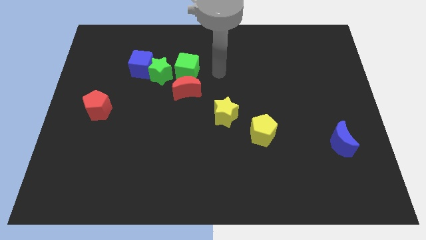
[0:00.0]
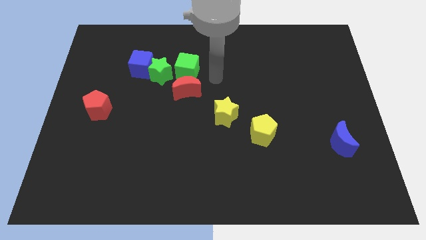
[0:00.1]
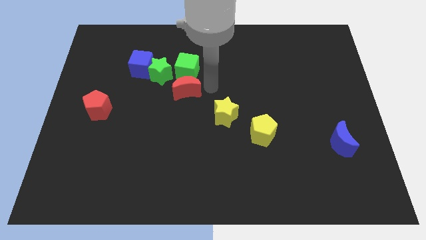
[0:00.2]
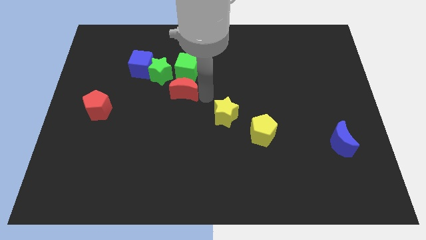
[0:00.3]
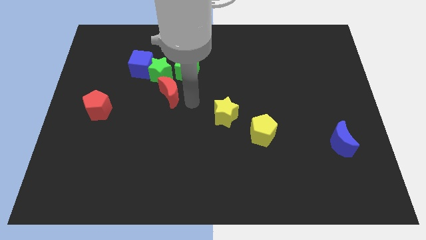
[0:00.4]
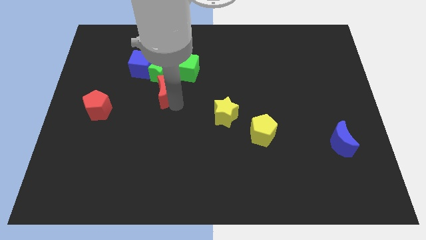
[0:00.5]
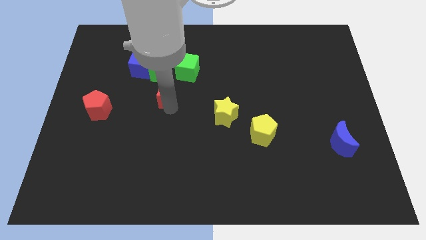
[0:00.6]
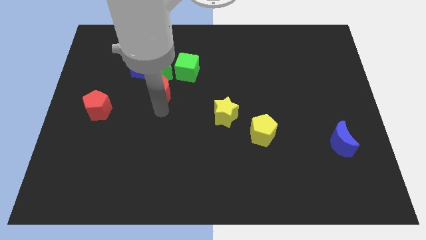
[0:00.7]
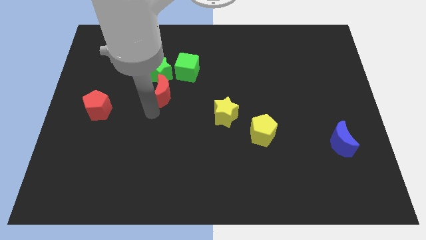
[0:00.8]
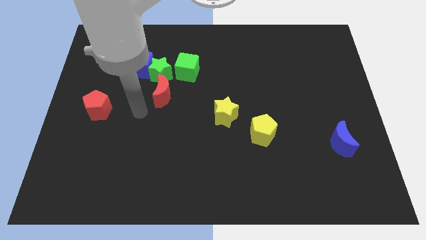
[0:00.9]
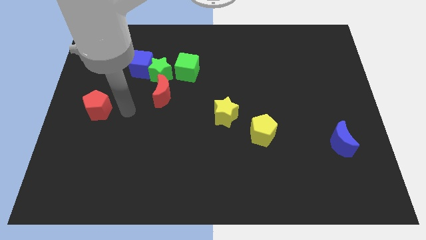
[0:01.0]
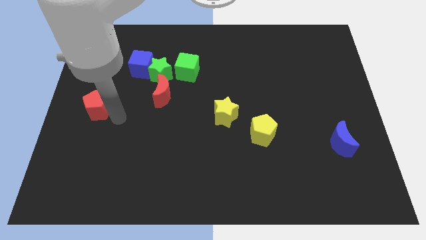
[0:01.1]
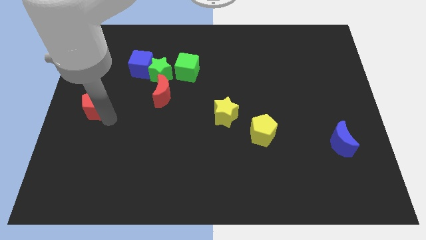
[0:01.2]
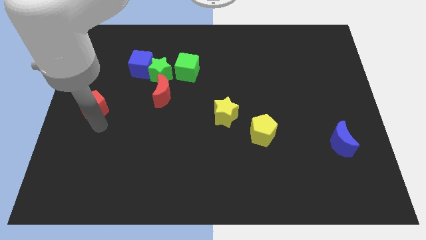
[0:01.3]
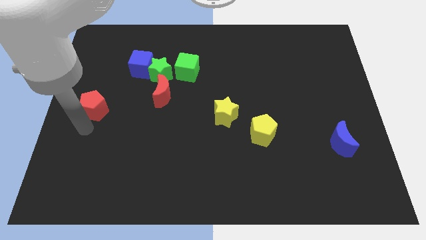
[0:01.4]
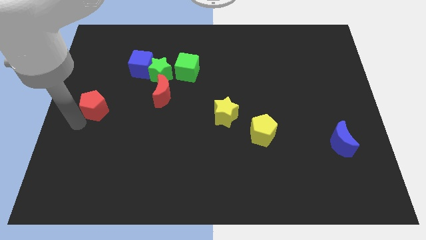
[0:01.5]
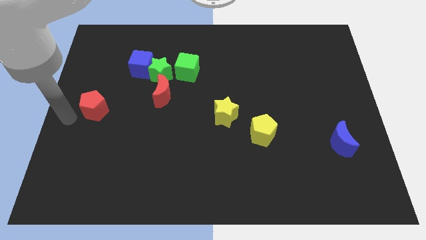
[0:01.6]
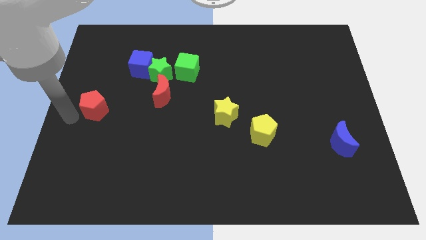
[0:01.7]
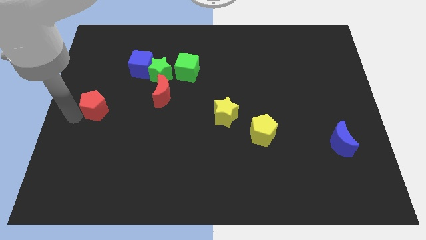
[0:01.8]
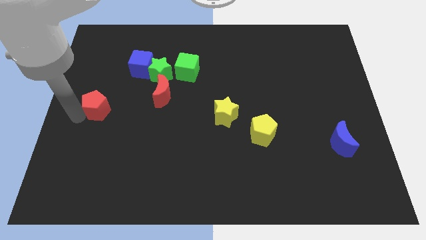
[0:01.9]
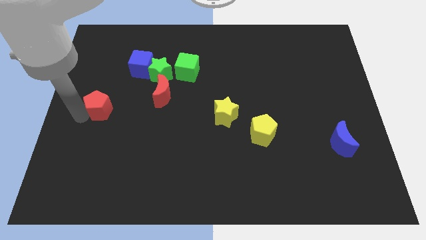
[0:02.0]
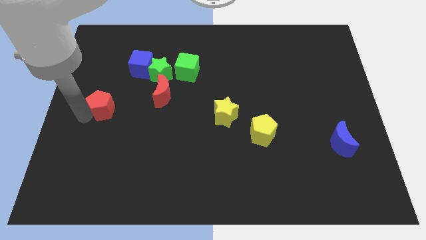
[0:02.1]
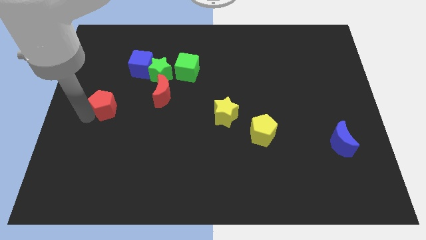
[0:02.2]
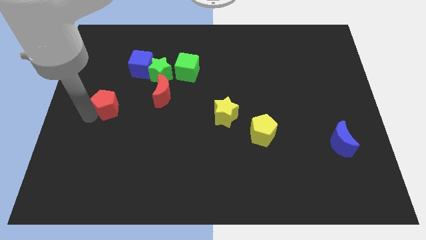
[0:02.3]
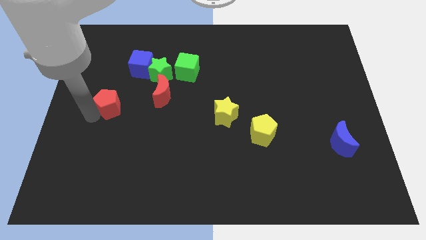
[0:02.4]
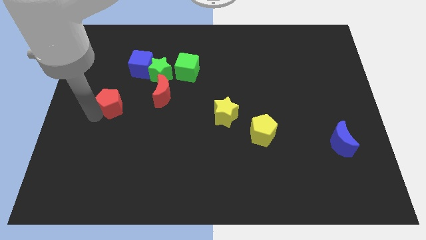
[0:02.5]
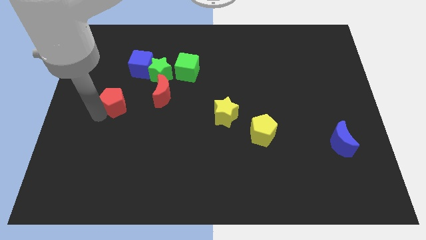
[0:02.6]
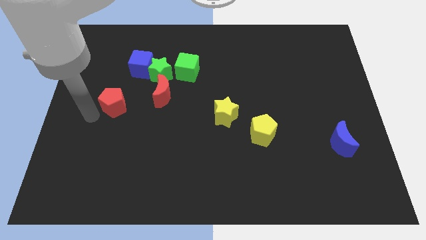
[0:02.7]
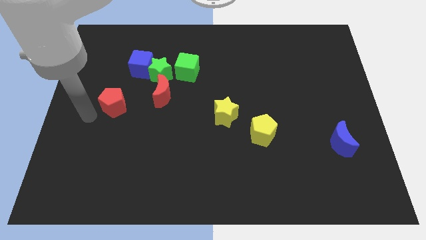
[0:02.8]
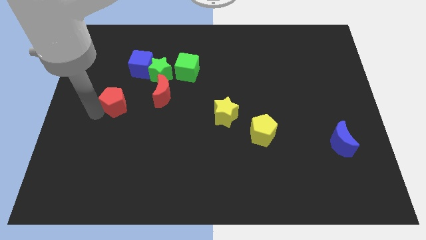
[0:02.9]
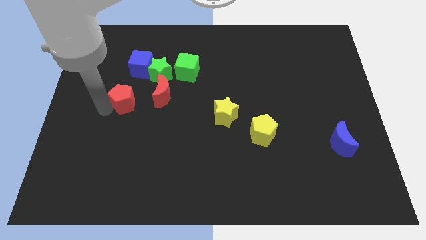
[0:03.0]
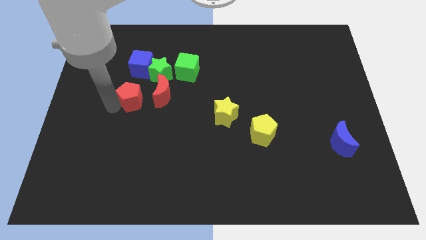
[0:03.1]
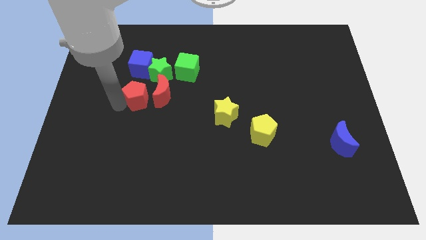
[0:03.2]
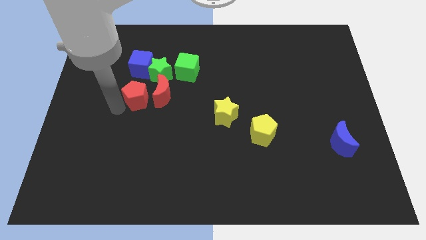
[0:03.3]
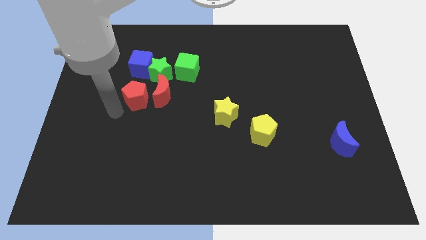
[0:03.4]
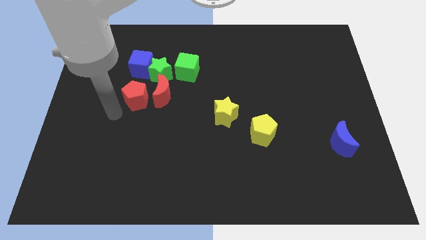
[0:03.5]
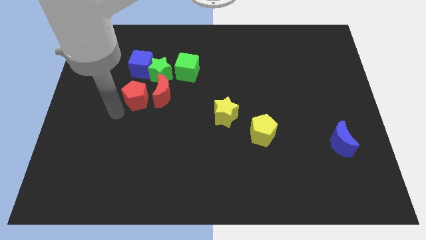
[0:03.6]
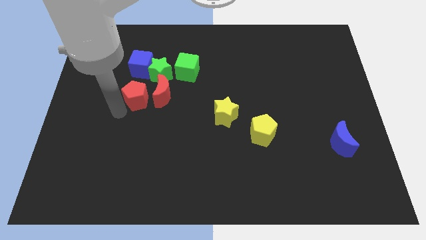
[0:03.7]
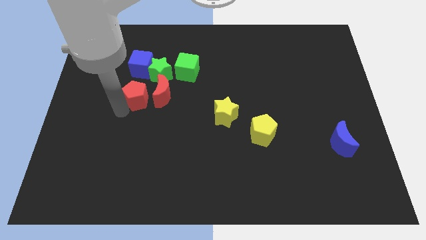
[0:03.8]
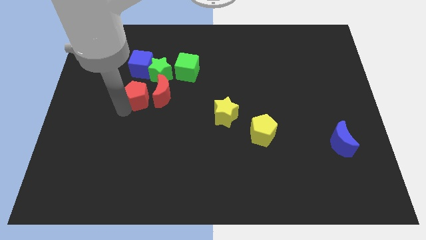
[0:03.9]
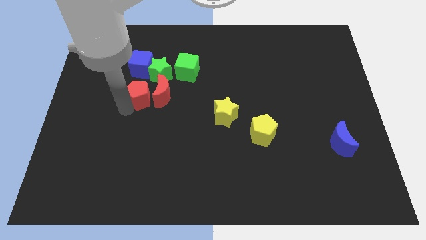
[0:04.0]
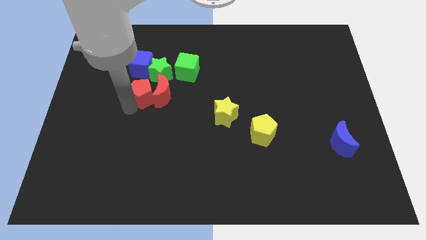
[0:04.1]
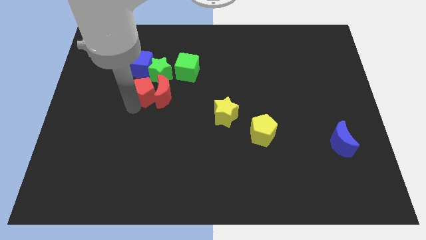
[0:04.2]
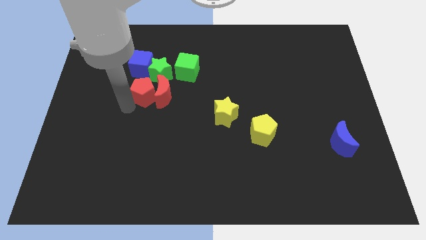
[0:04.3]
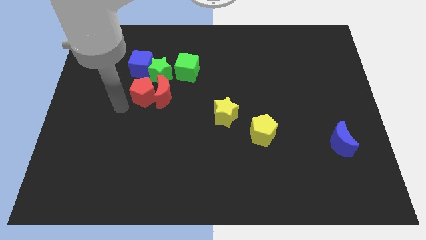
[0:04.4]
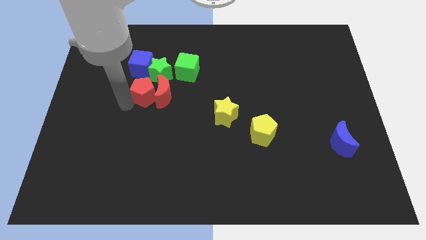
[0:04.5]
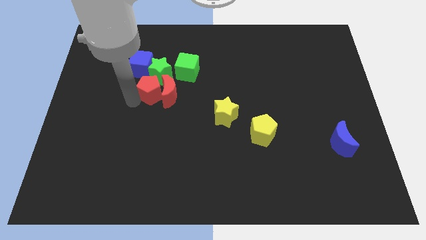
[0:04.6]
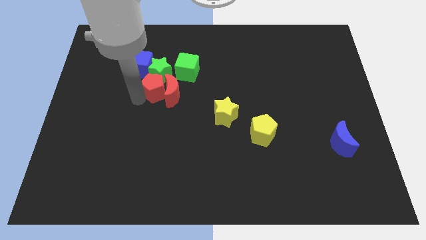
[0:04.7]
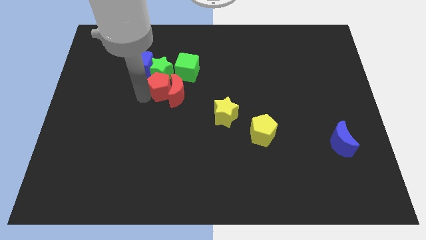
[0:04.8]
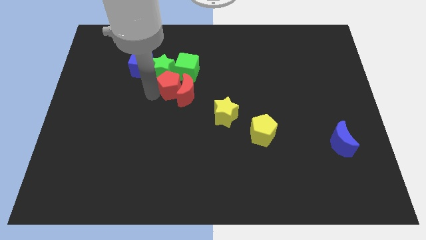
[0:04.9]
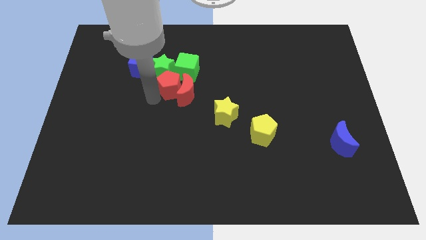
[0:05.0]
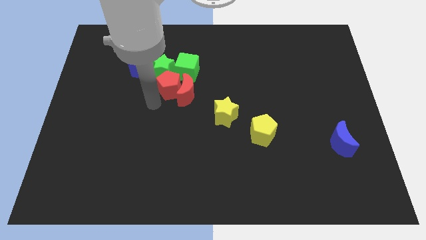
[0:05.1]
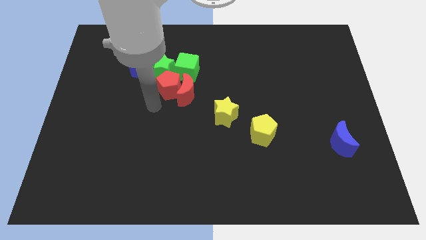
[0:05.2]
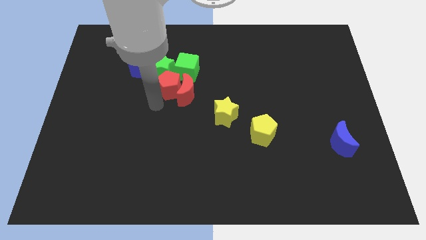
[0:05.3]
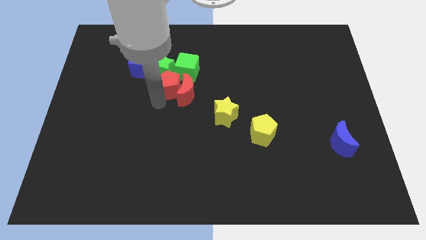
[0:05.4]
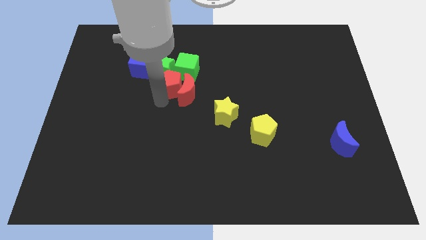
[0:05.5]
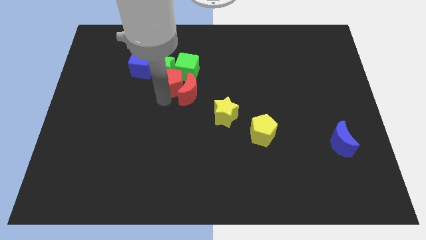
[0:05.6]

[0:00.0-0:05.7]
push the red pentagon next to the green cube

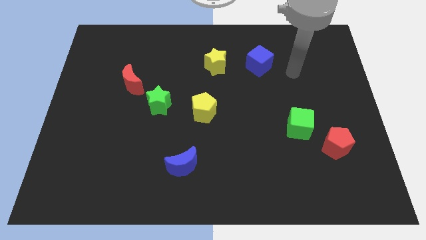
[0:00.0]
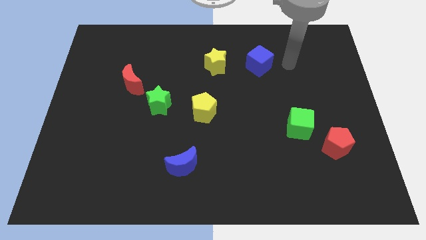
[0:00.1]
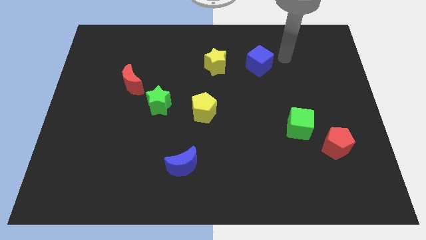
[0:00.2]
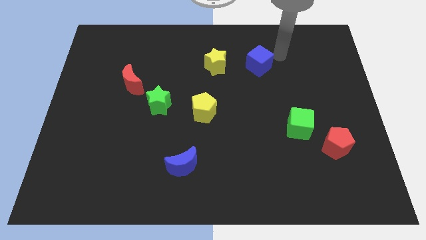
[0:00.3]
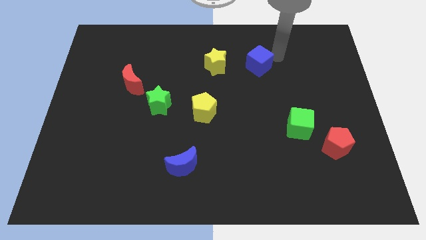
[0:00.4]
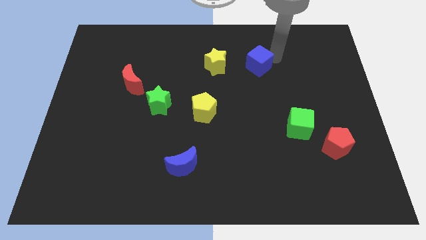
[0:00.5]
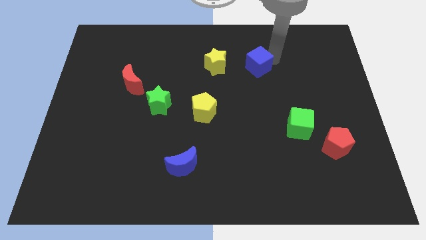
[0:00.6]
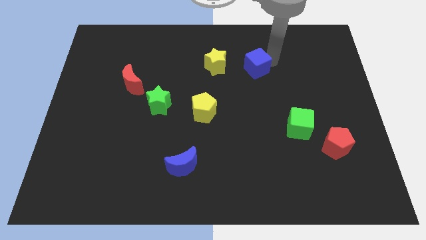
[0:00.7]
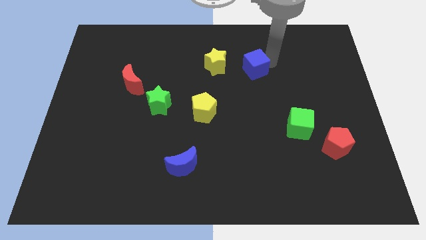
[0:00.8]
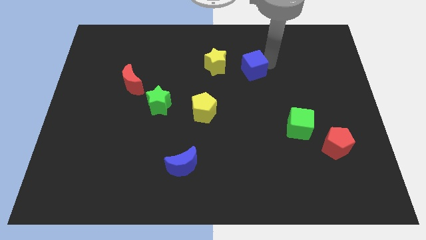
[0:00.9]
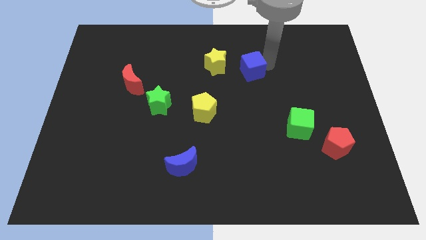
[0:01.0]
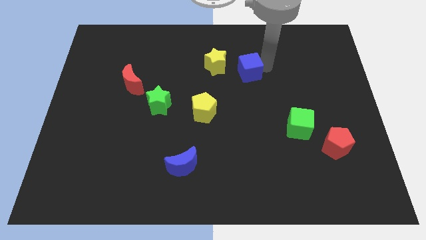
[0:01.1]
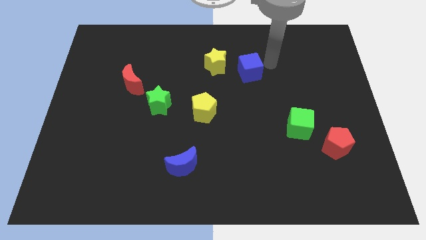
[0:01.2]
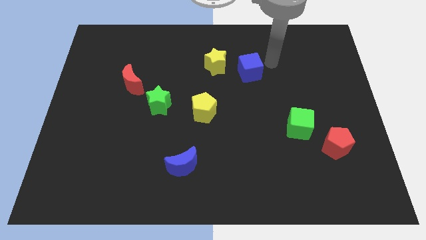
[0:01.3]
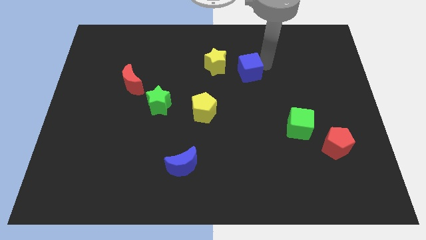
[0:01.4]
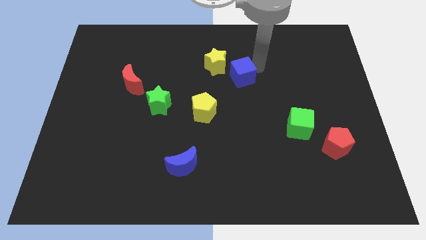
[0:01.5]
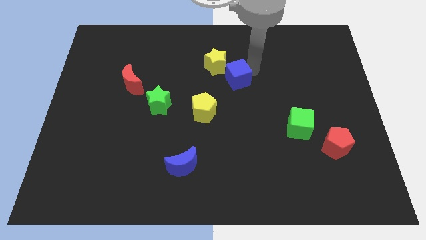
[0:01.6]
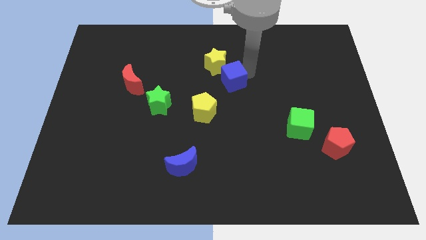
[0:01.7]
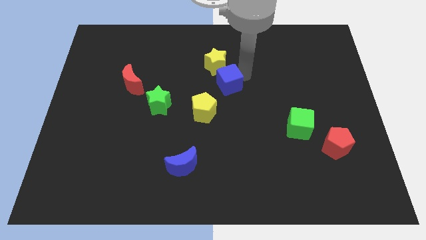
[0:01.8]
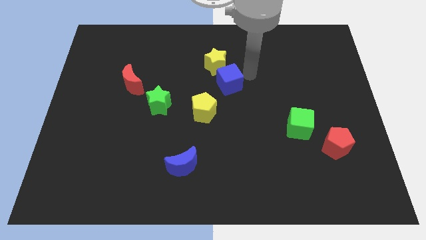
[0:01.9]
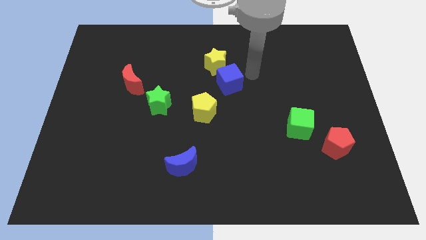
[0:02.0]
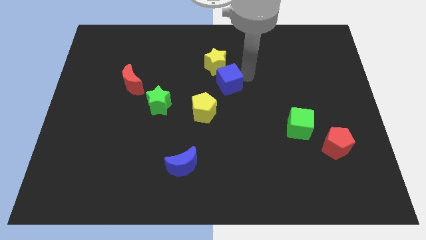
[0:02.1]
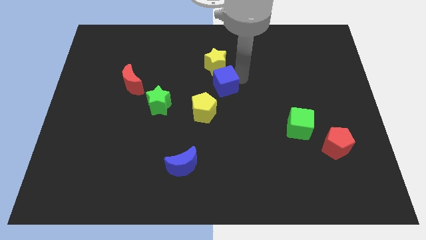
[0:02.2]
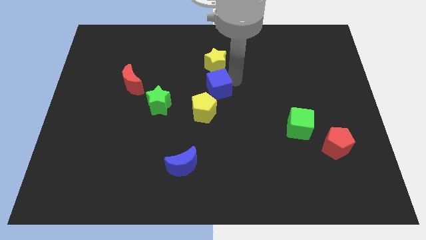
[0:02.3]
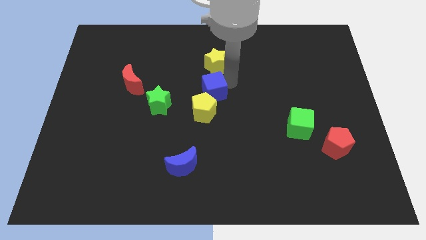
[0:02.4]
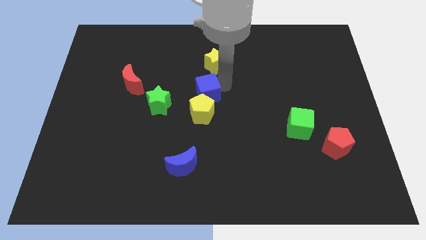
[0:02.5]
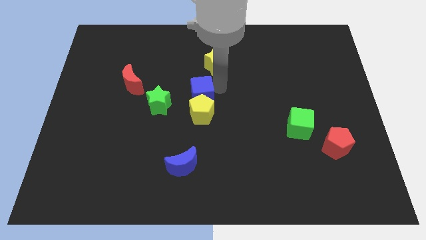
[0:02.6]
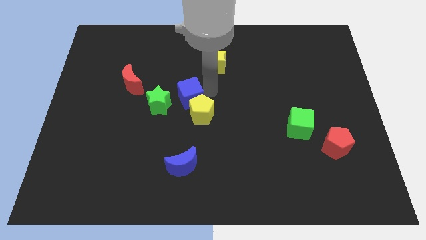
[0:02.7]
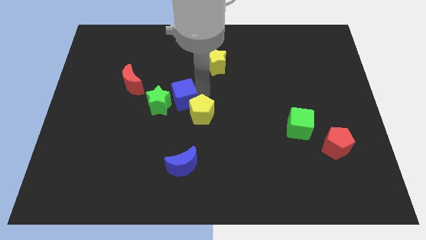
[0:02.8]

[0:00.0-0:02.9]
put the blue cube towards the green star
